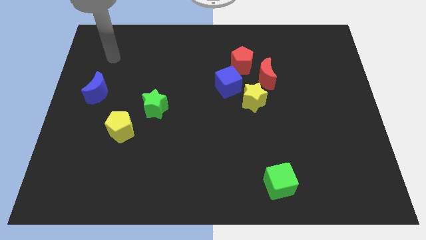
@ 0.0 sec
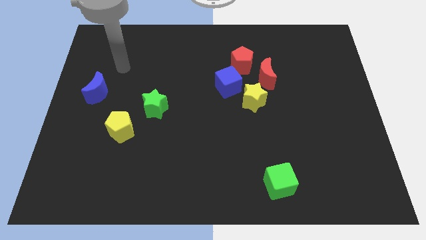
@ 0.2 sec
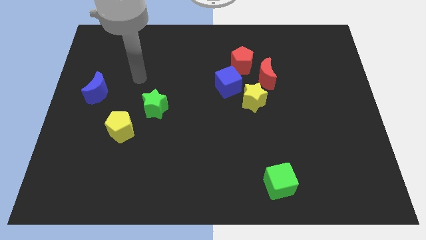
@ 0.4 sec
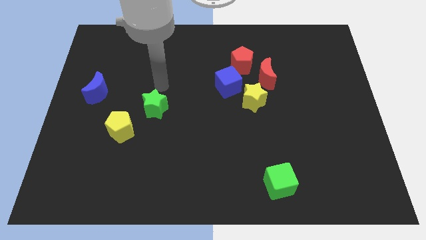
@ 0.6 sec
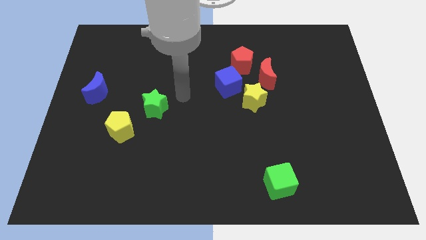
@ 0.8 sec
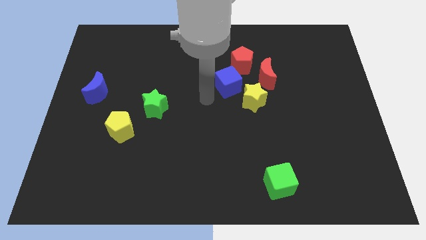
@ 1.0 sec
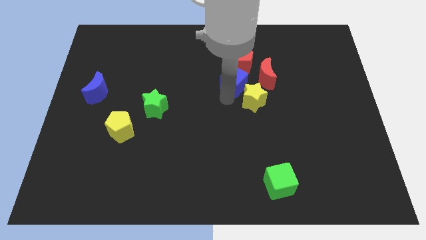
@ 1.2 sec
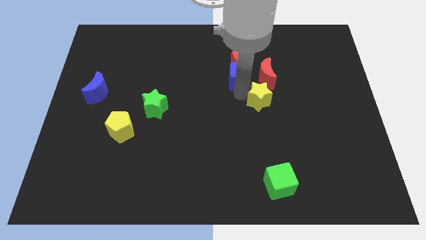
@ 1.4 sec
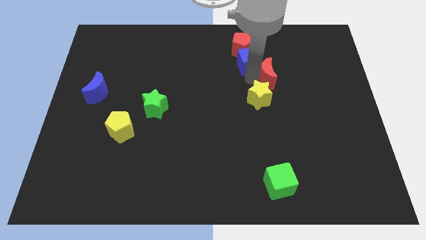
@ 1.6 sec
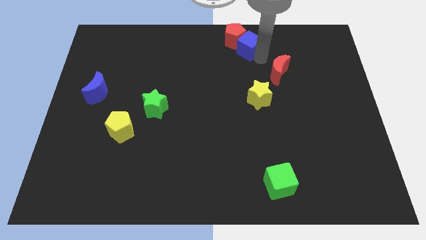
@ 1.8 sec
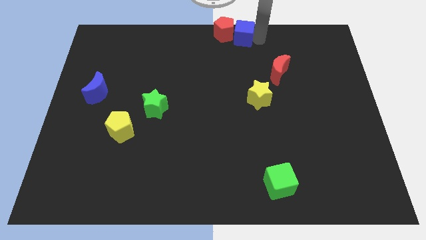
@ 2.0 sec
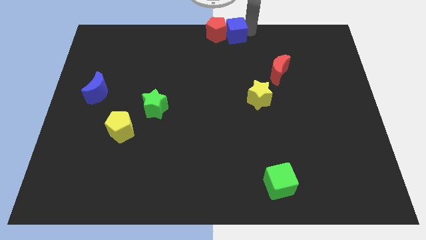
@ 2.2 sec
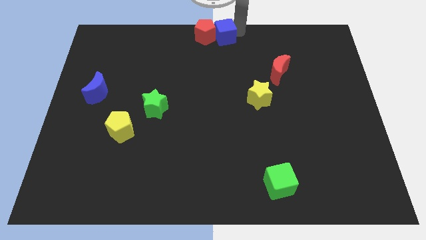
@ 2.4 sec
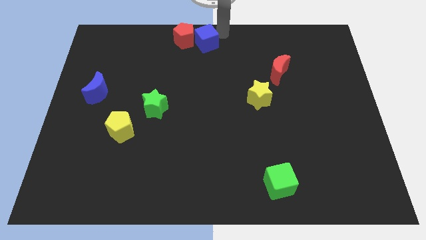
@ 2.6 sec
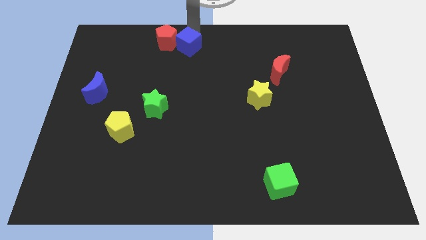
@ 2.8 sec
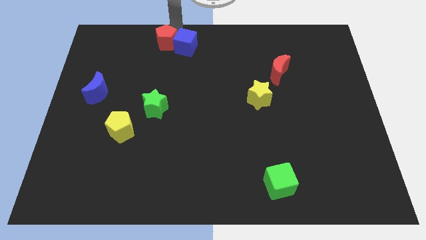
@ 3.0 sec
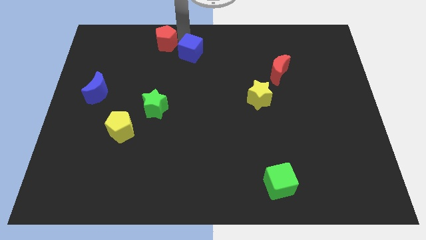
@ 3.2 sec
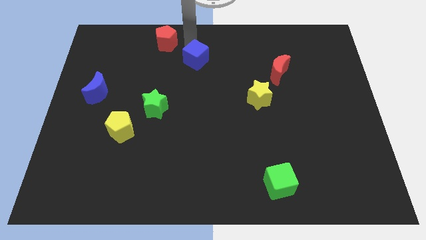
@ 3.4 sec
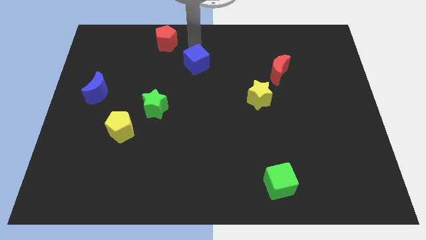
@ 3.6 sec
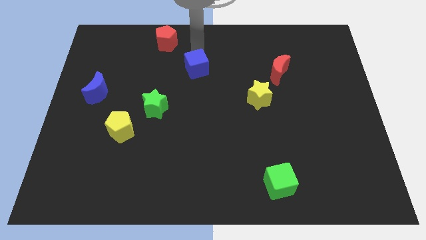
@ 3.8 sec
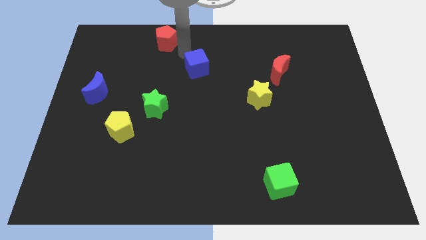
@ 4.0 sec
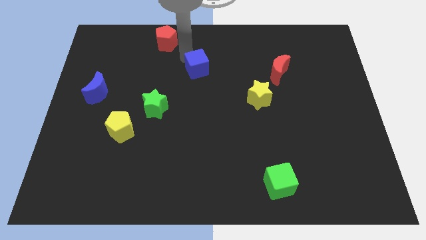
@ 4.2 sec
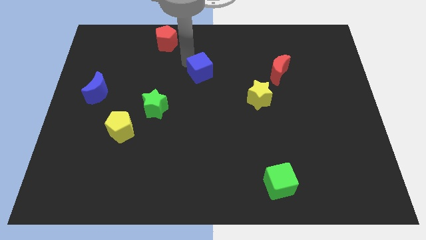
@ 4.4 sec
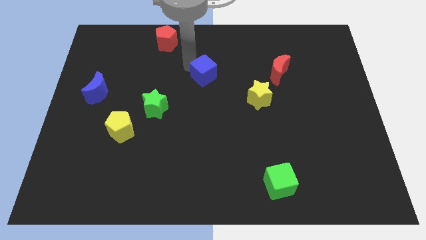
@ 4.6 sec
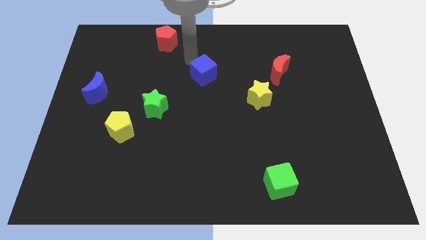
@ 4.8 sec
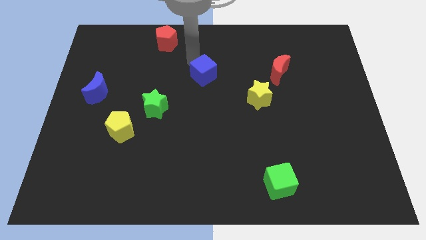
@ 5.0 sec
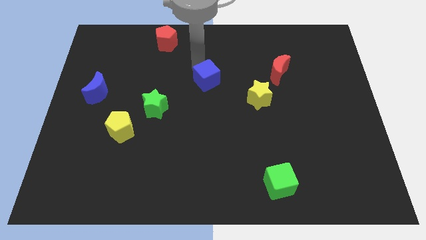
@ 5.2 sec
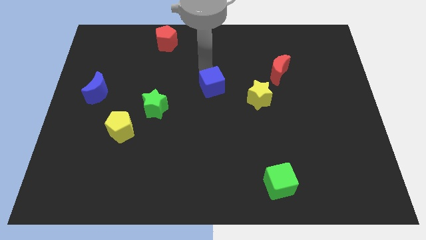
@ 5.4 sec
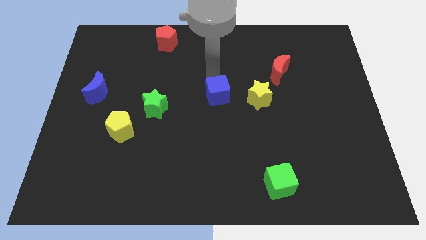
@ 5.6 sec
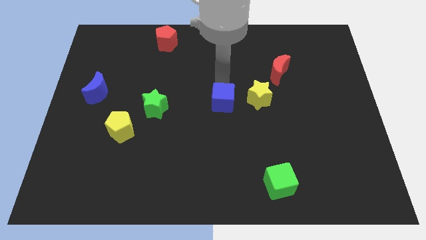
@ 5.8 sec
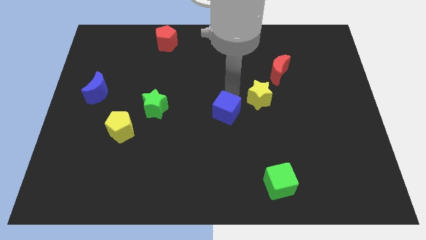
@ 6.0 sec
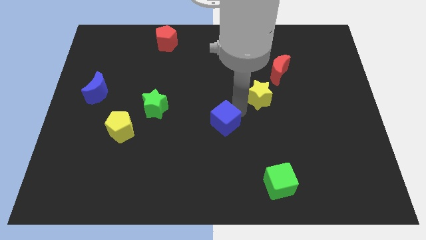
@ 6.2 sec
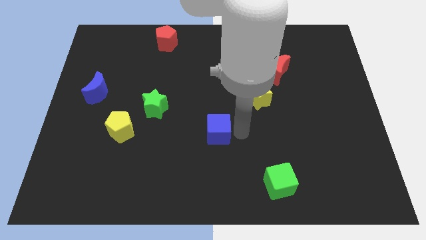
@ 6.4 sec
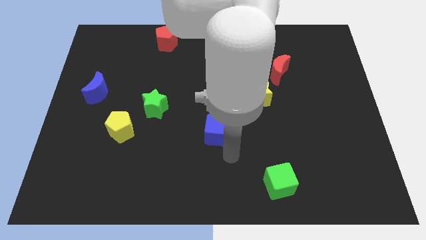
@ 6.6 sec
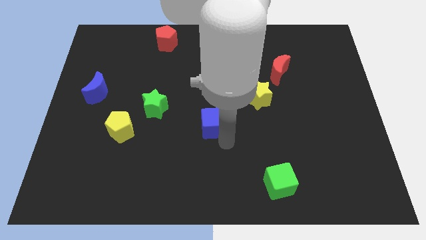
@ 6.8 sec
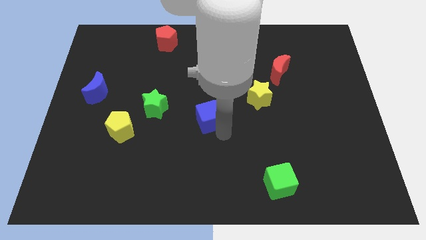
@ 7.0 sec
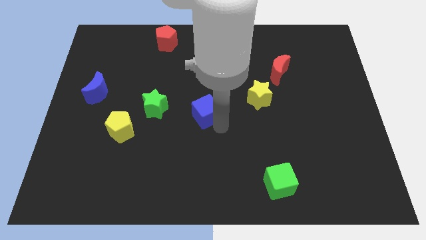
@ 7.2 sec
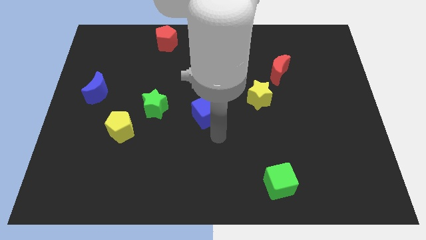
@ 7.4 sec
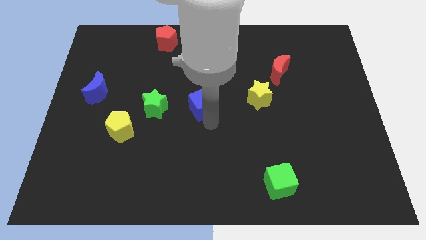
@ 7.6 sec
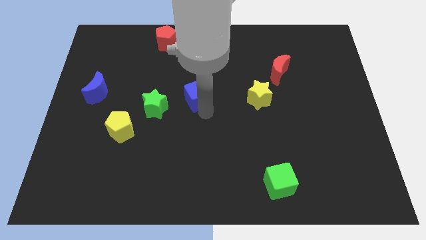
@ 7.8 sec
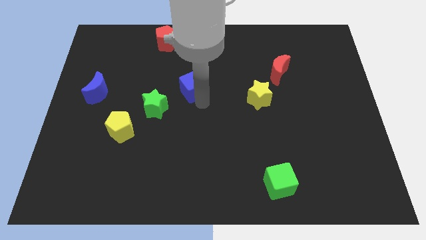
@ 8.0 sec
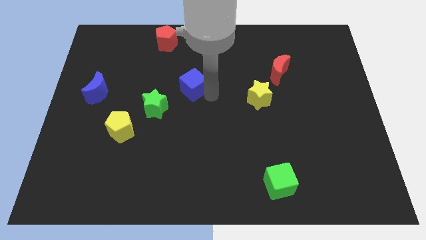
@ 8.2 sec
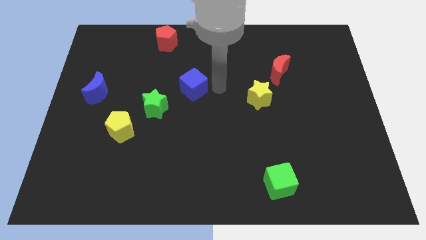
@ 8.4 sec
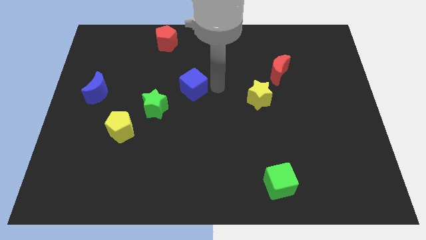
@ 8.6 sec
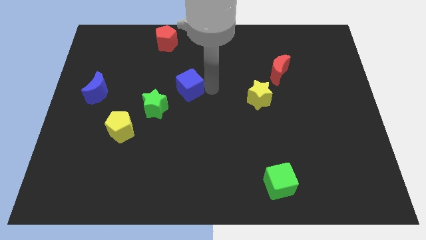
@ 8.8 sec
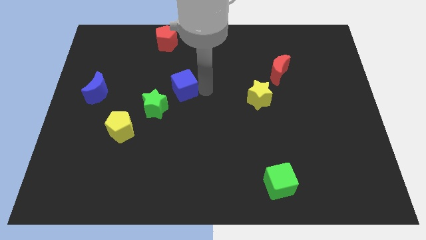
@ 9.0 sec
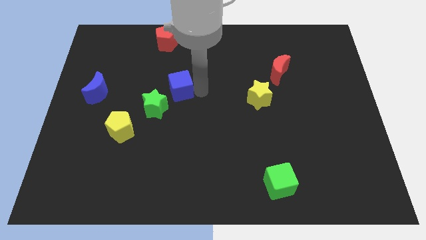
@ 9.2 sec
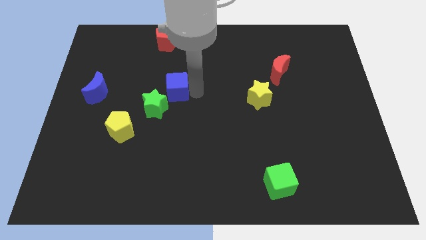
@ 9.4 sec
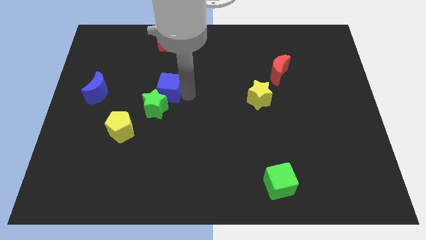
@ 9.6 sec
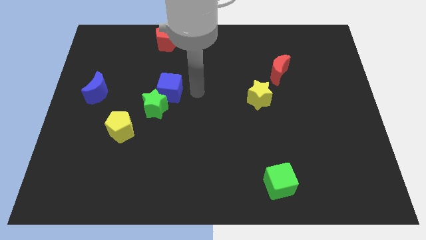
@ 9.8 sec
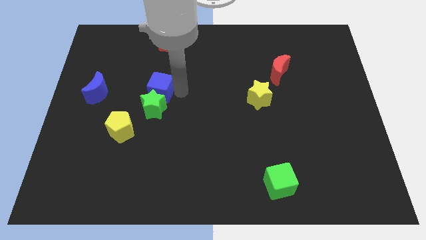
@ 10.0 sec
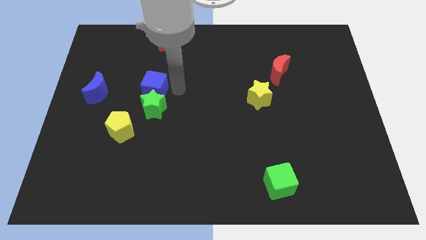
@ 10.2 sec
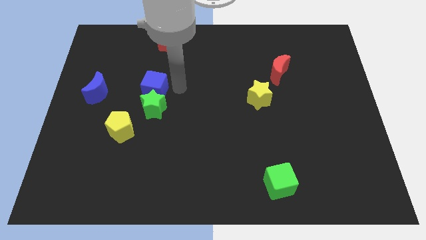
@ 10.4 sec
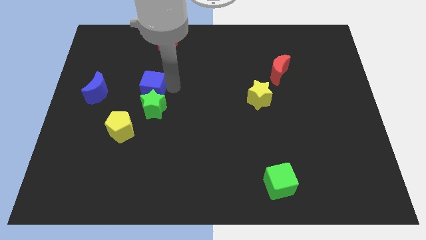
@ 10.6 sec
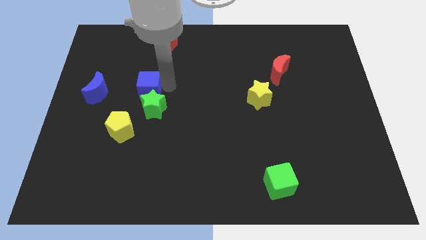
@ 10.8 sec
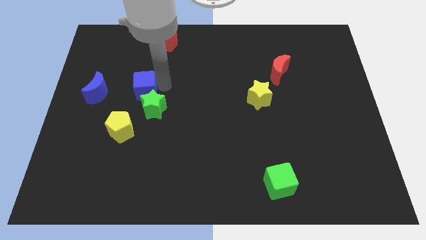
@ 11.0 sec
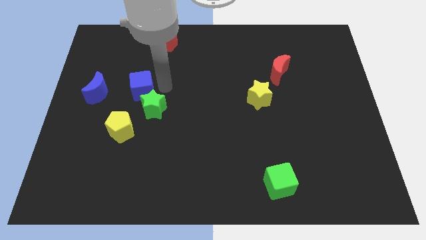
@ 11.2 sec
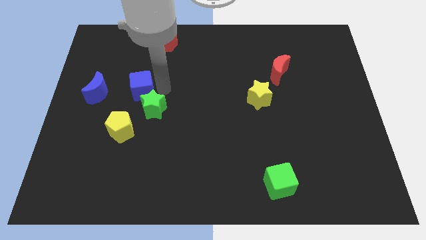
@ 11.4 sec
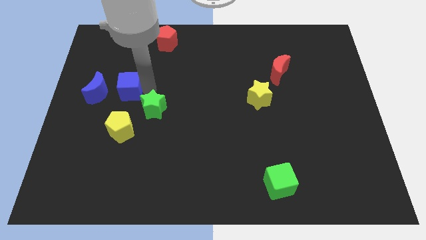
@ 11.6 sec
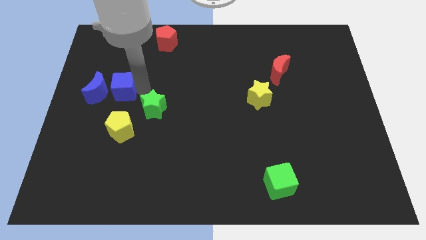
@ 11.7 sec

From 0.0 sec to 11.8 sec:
push the blue cube close to the blue moon
